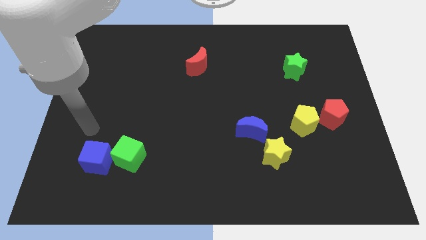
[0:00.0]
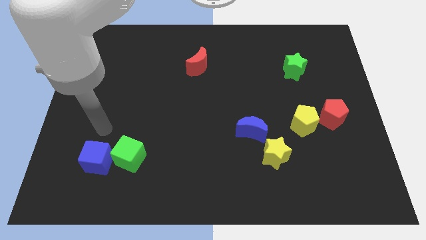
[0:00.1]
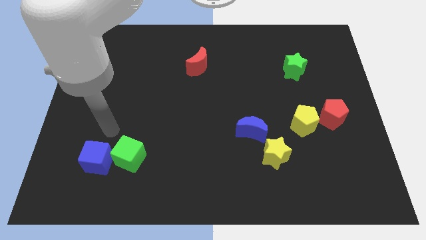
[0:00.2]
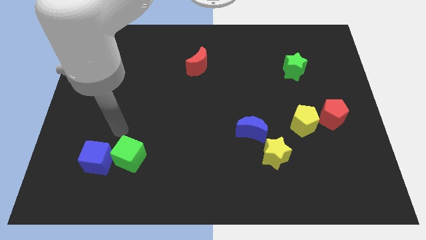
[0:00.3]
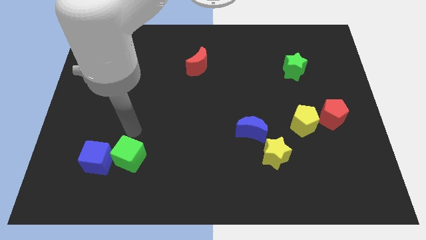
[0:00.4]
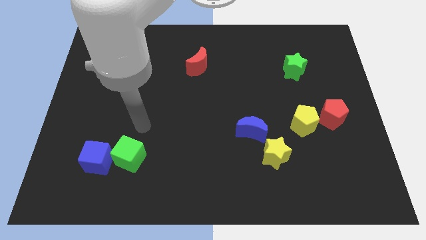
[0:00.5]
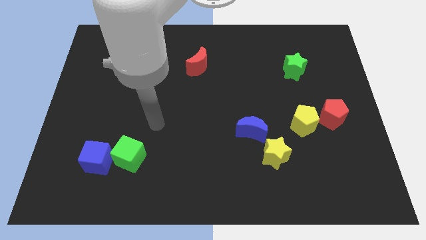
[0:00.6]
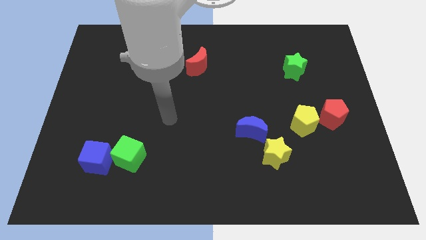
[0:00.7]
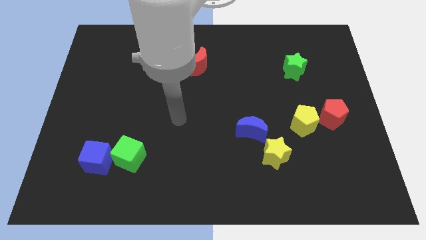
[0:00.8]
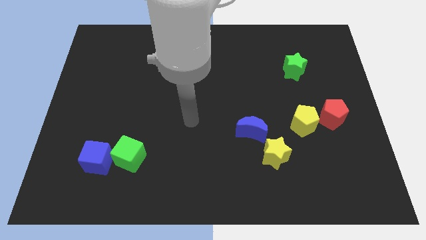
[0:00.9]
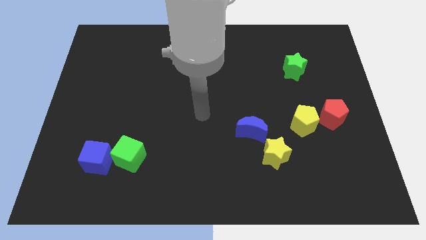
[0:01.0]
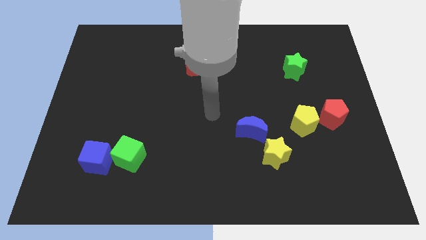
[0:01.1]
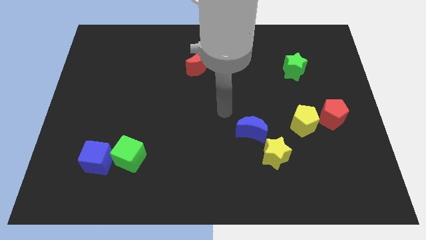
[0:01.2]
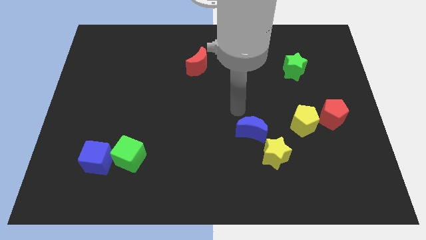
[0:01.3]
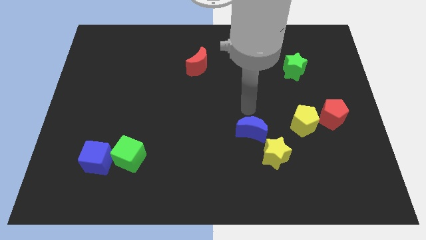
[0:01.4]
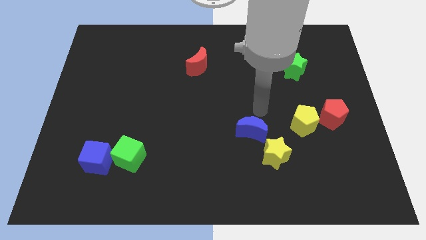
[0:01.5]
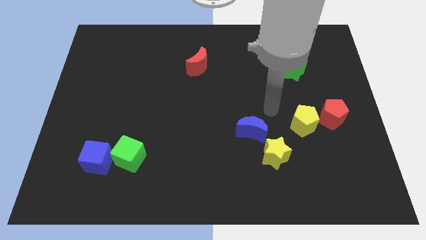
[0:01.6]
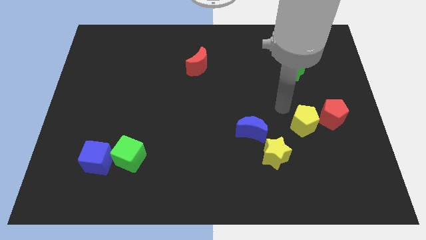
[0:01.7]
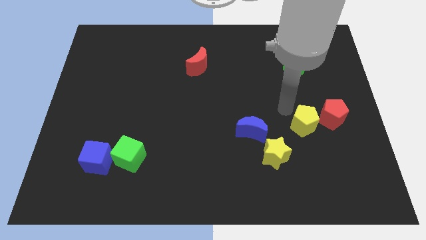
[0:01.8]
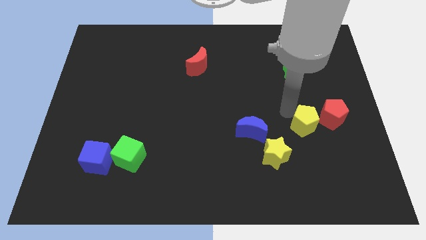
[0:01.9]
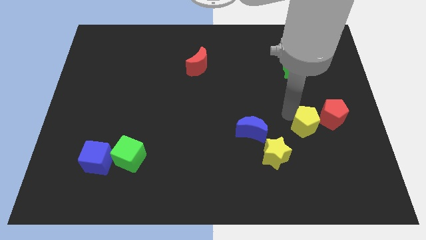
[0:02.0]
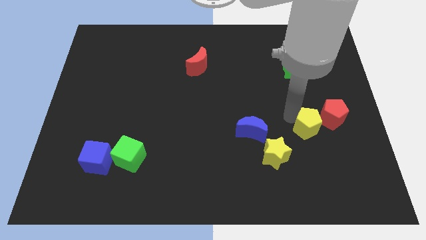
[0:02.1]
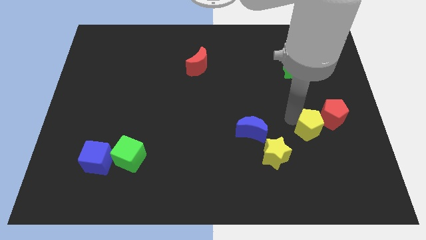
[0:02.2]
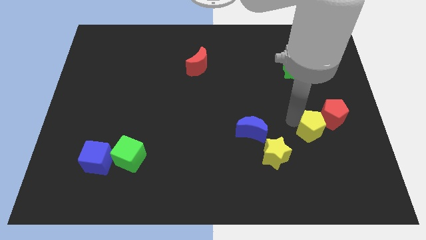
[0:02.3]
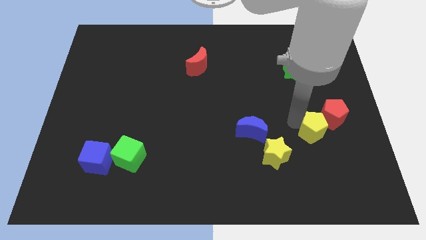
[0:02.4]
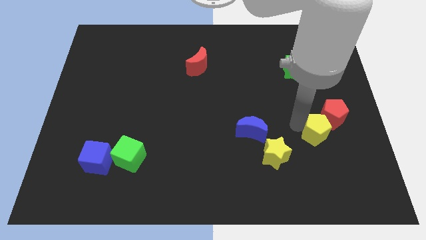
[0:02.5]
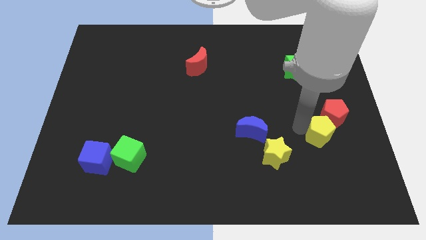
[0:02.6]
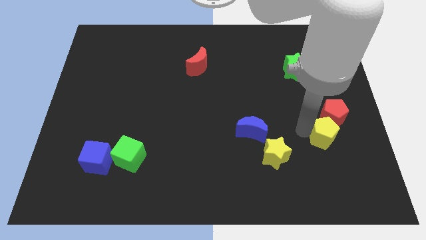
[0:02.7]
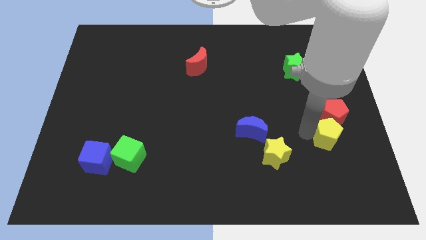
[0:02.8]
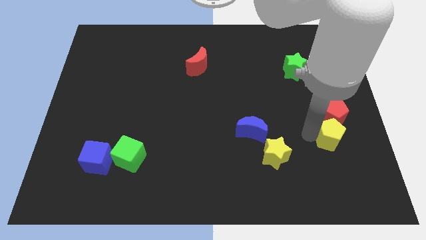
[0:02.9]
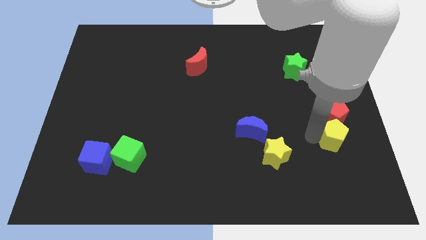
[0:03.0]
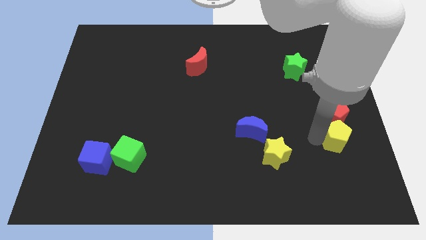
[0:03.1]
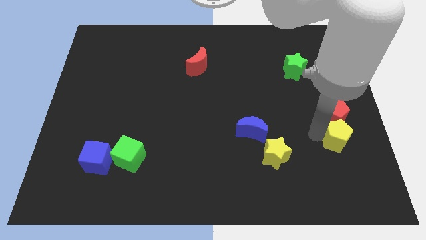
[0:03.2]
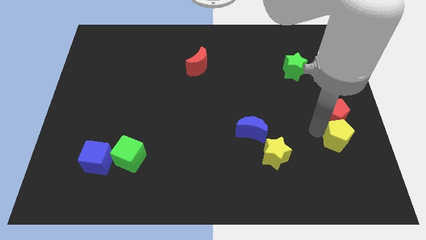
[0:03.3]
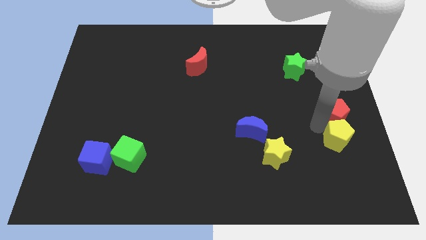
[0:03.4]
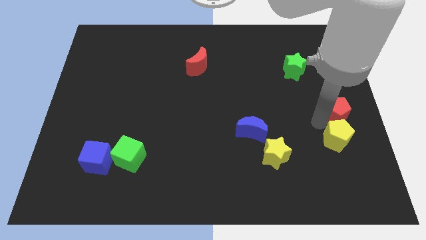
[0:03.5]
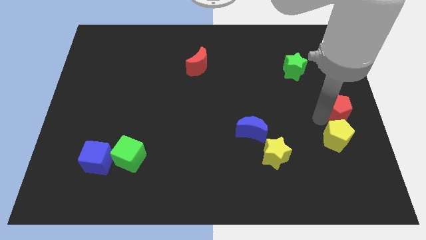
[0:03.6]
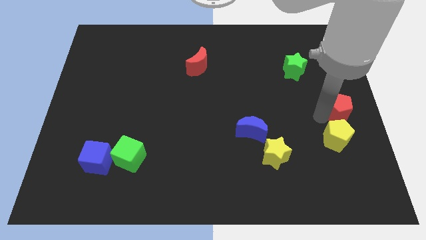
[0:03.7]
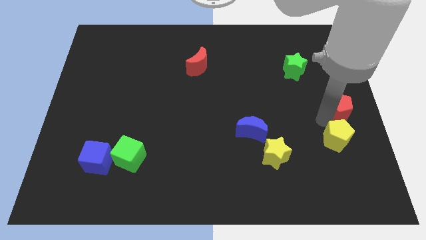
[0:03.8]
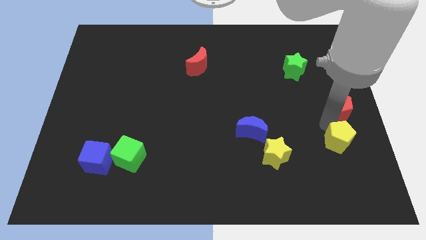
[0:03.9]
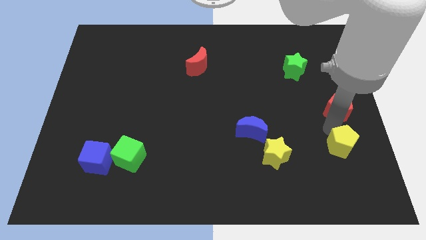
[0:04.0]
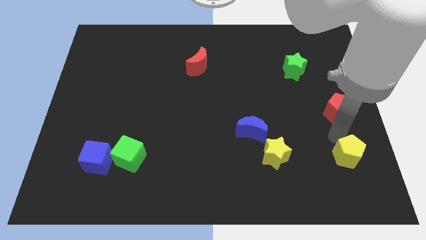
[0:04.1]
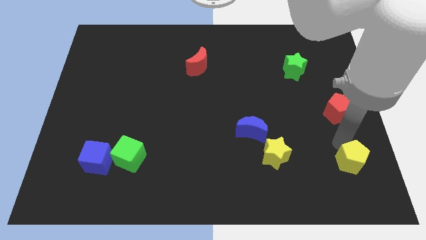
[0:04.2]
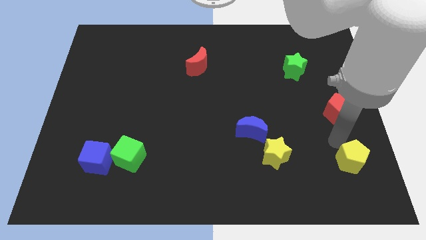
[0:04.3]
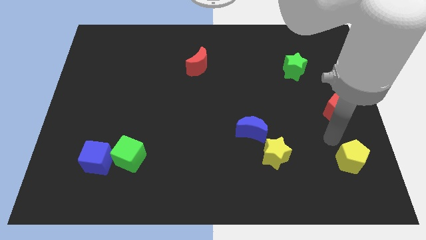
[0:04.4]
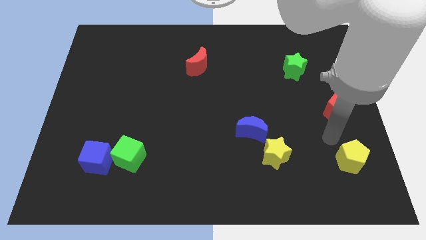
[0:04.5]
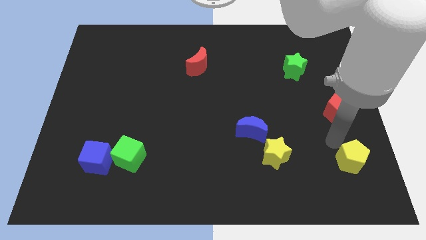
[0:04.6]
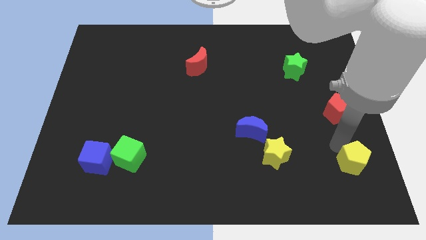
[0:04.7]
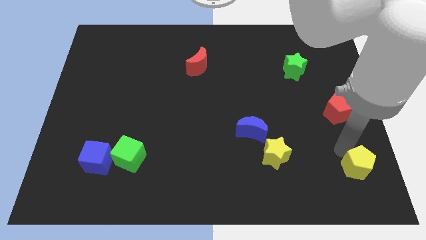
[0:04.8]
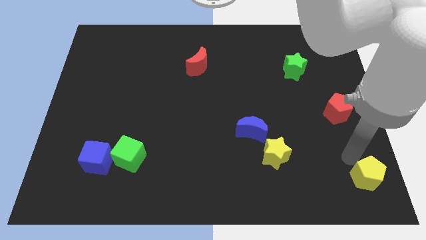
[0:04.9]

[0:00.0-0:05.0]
push the yellow pentagon to the bottom right of the board

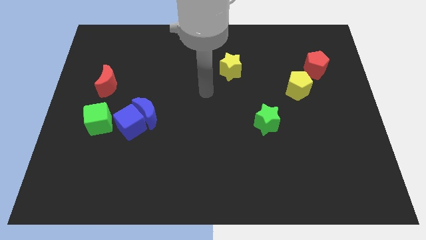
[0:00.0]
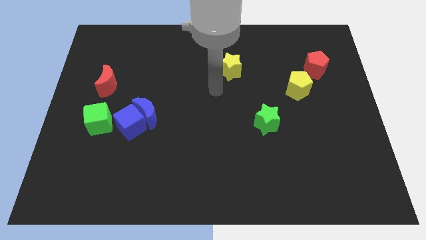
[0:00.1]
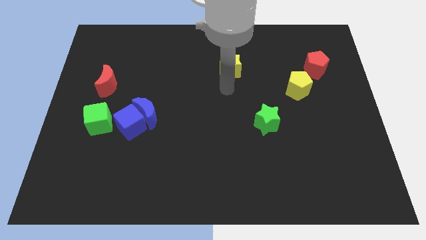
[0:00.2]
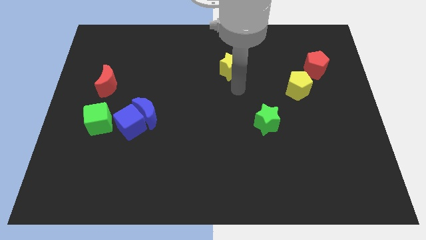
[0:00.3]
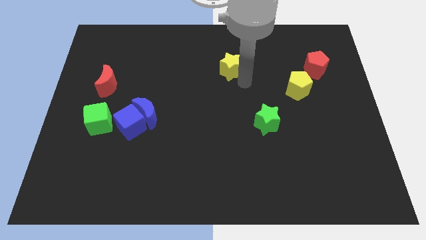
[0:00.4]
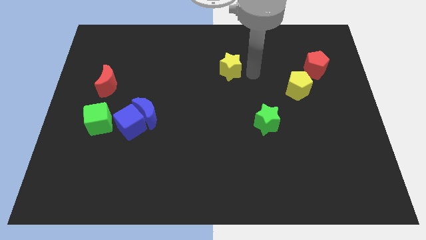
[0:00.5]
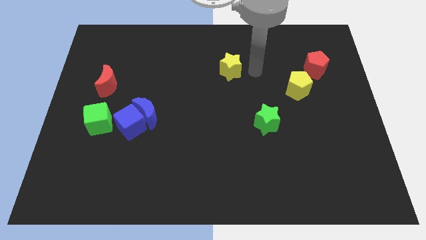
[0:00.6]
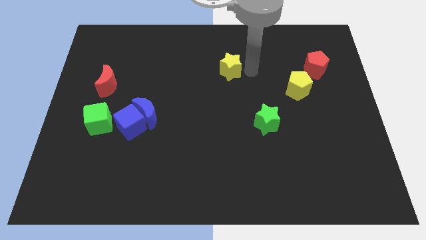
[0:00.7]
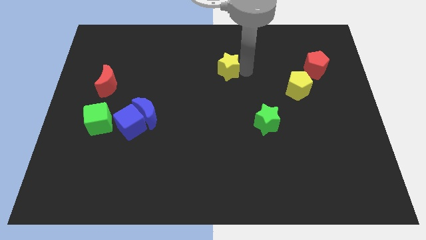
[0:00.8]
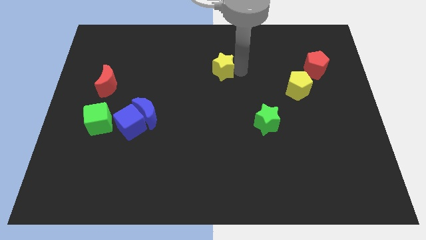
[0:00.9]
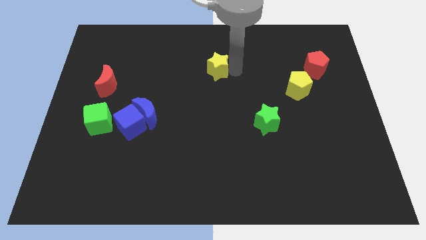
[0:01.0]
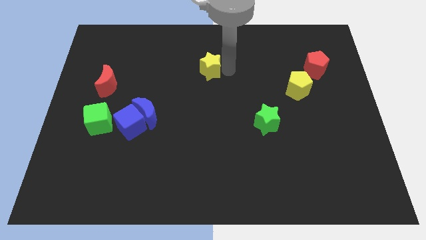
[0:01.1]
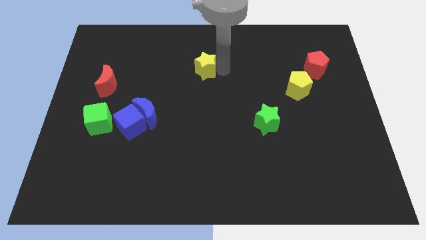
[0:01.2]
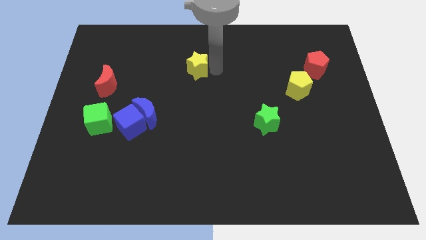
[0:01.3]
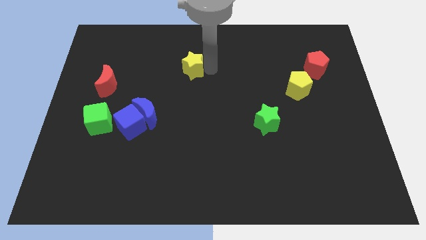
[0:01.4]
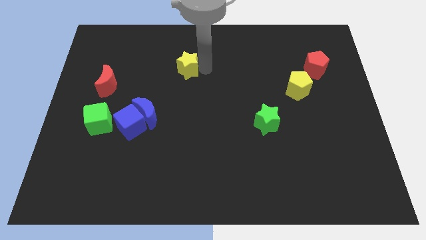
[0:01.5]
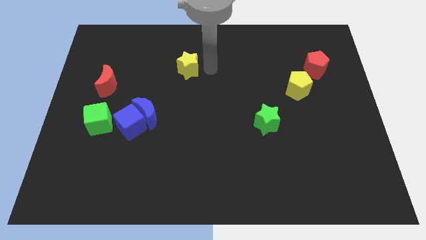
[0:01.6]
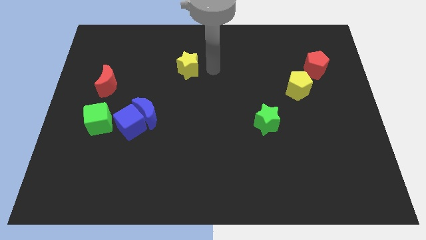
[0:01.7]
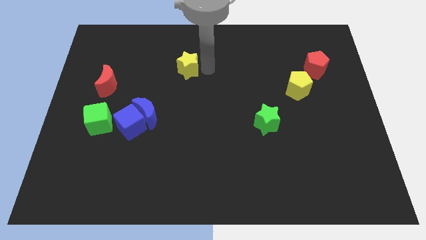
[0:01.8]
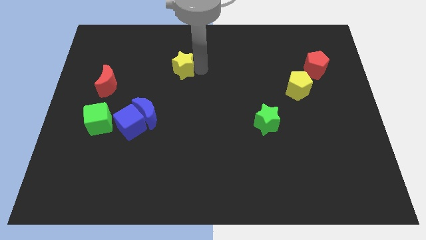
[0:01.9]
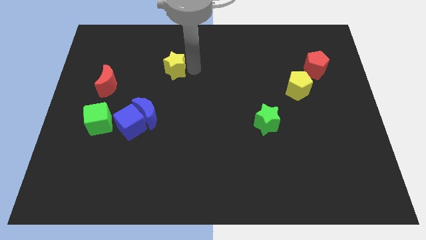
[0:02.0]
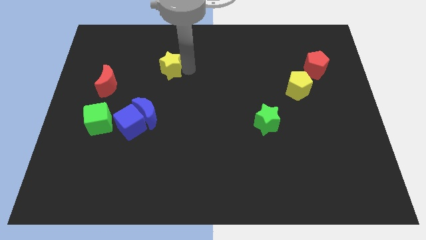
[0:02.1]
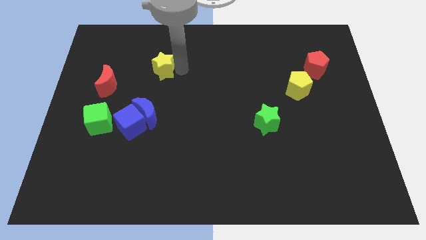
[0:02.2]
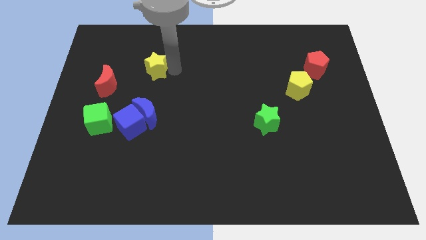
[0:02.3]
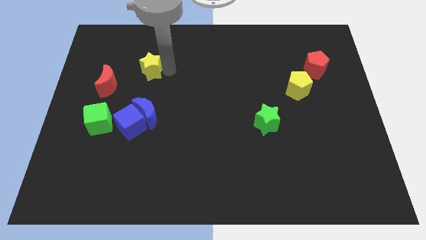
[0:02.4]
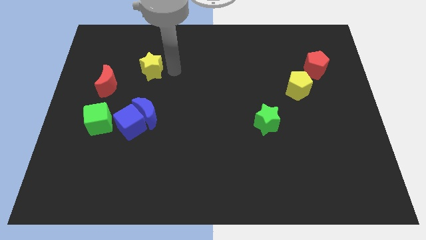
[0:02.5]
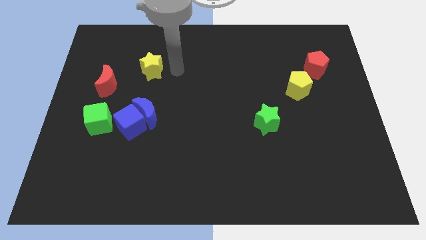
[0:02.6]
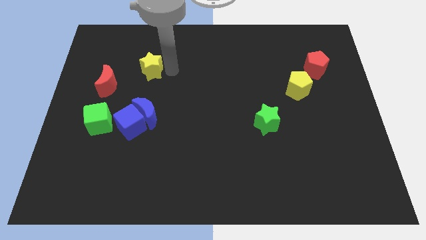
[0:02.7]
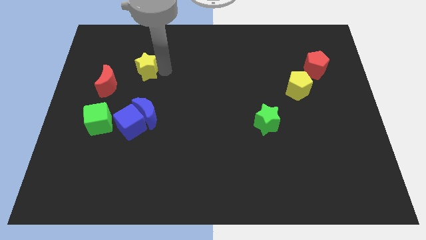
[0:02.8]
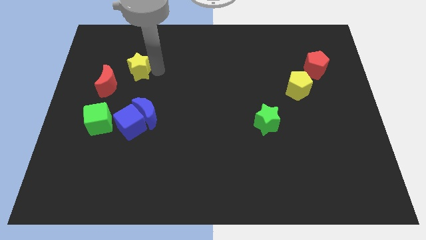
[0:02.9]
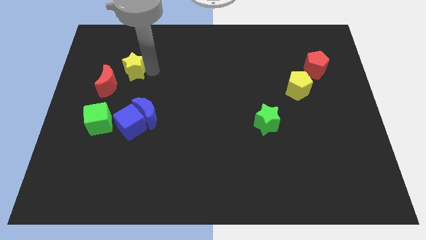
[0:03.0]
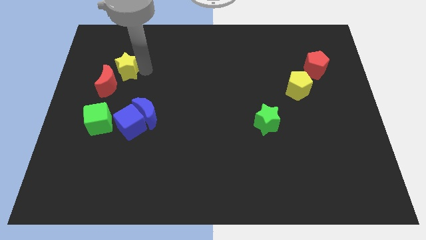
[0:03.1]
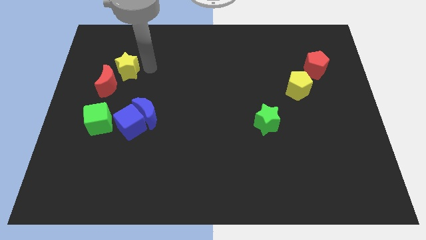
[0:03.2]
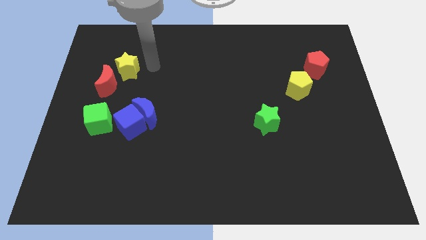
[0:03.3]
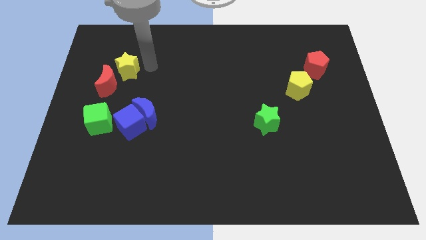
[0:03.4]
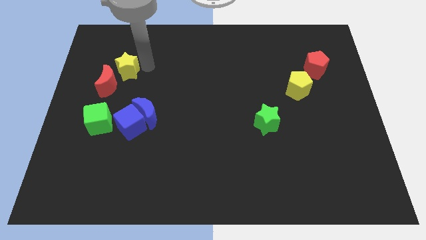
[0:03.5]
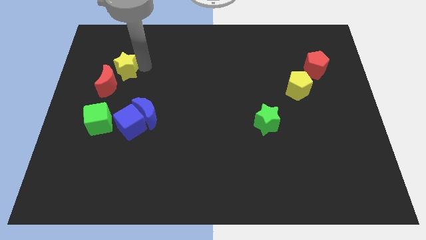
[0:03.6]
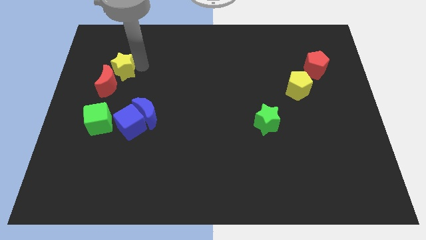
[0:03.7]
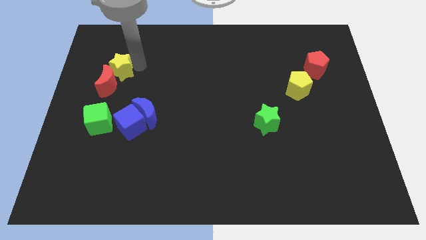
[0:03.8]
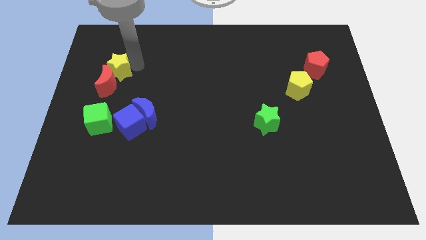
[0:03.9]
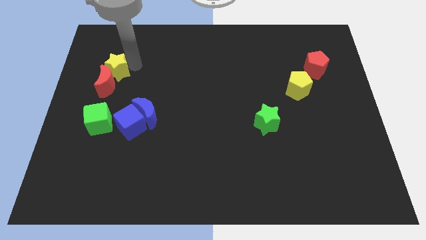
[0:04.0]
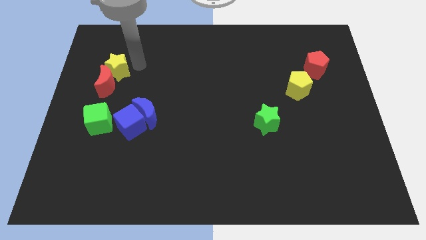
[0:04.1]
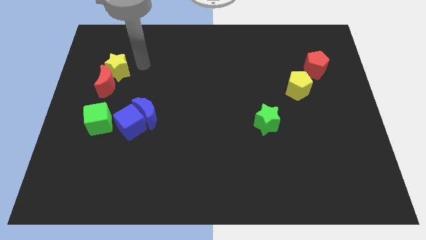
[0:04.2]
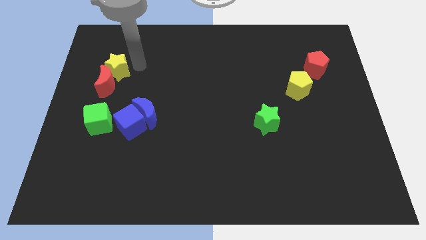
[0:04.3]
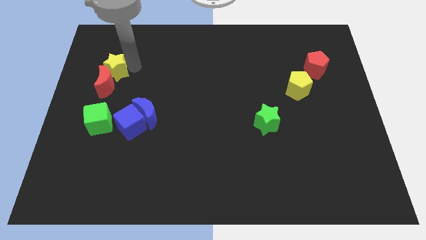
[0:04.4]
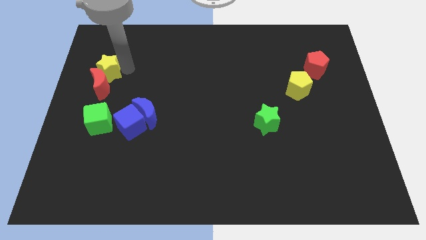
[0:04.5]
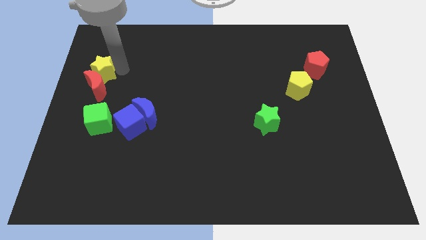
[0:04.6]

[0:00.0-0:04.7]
push the yellow star to the left side of the board
